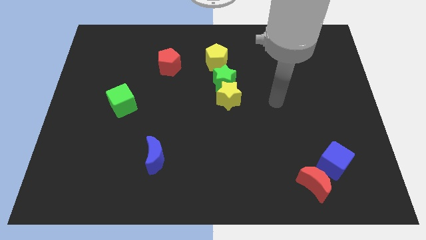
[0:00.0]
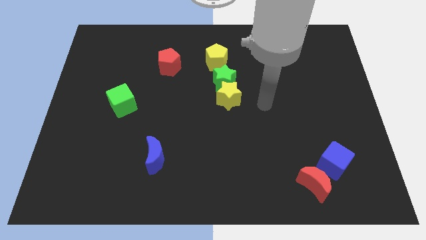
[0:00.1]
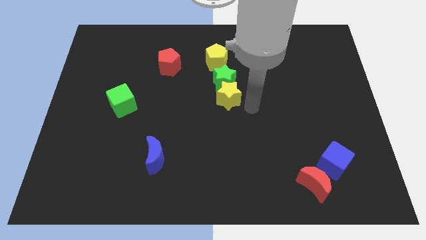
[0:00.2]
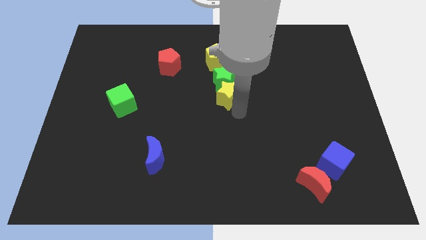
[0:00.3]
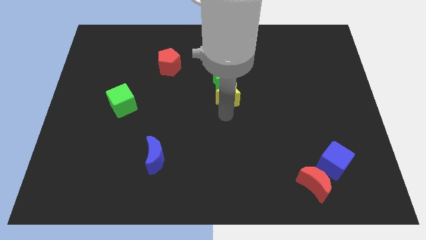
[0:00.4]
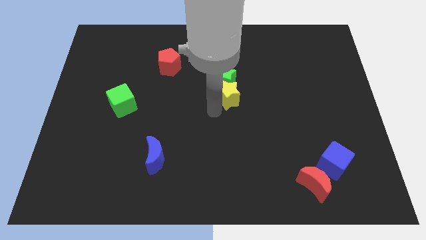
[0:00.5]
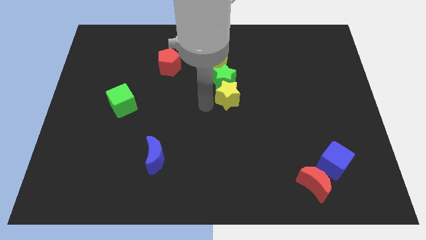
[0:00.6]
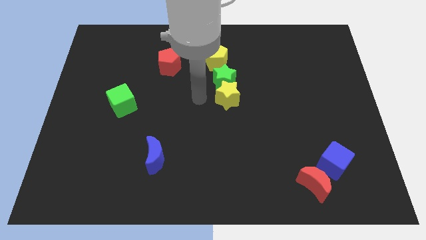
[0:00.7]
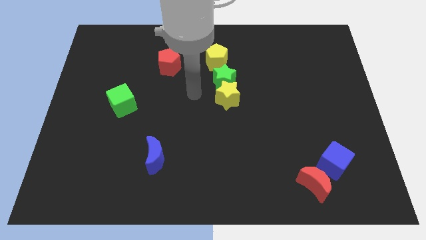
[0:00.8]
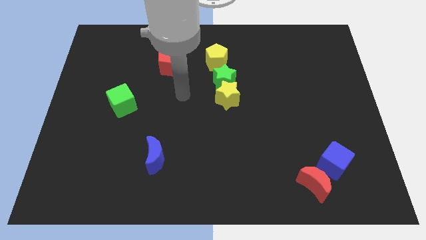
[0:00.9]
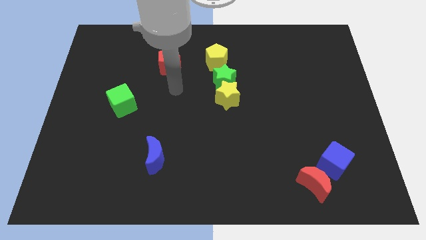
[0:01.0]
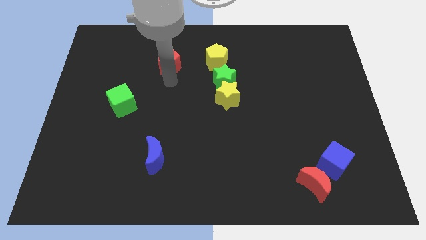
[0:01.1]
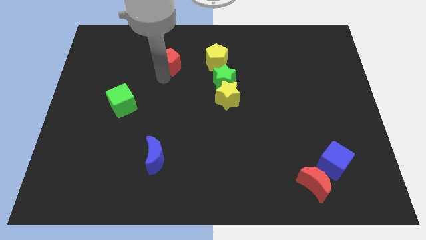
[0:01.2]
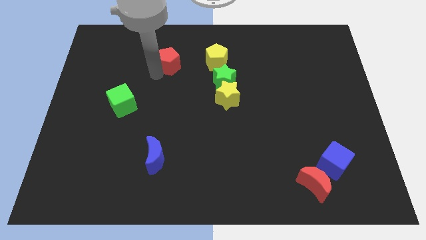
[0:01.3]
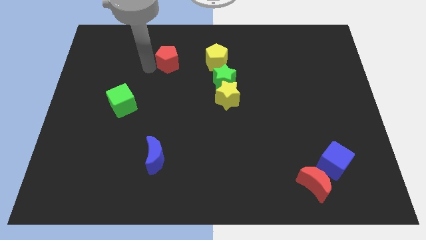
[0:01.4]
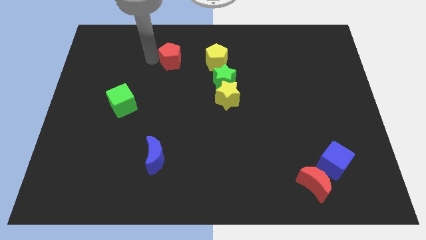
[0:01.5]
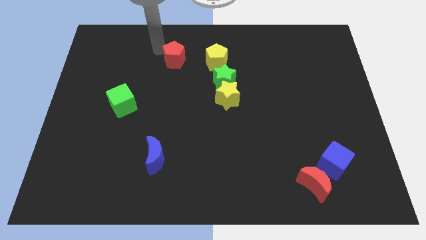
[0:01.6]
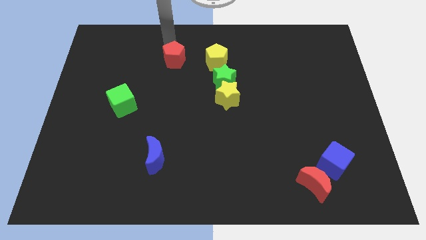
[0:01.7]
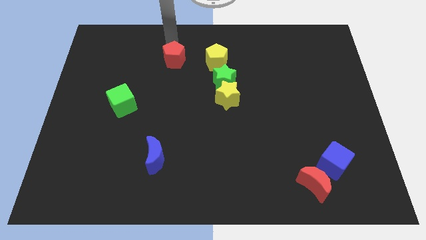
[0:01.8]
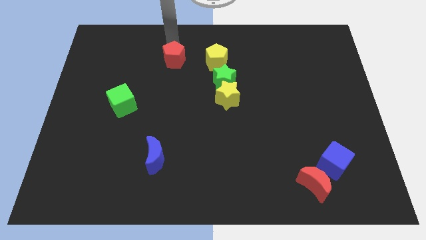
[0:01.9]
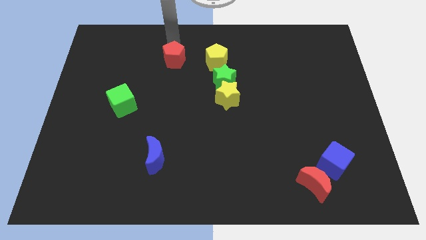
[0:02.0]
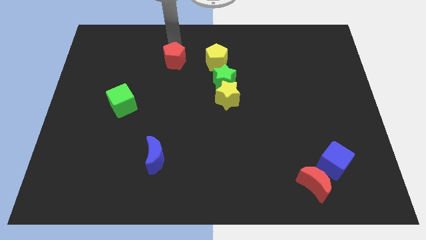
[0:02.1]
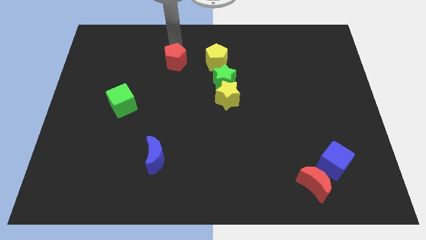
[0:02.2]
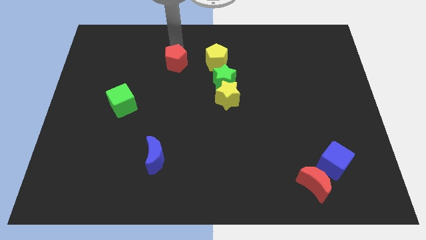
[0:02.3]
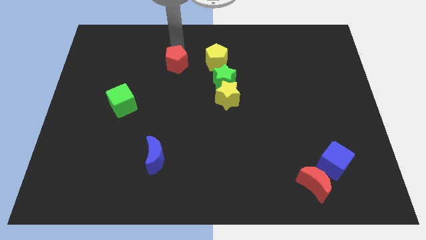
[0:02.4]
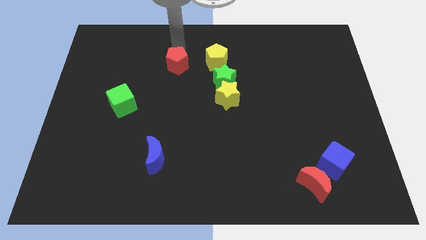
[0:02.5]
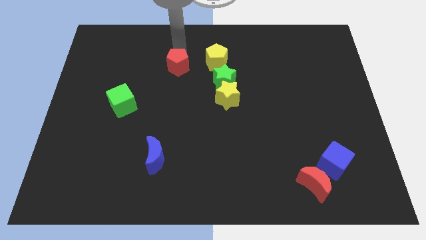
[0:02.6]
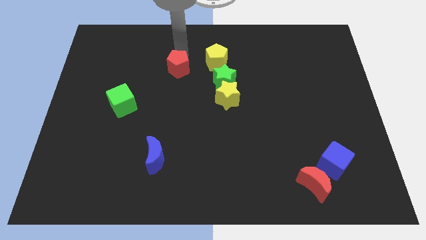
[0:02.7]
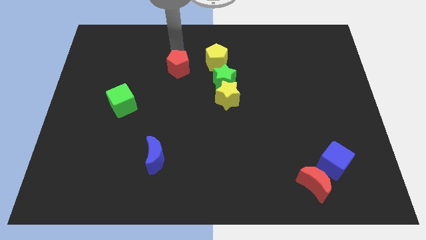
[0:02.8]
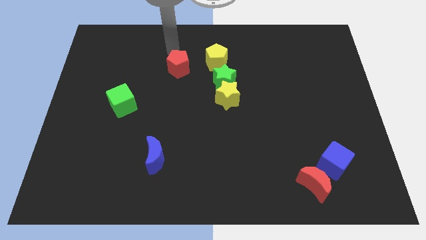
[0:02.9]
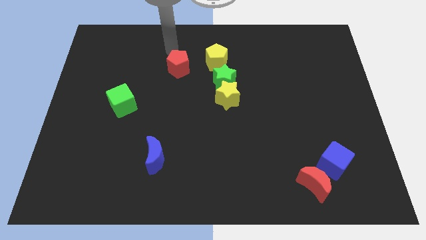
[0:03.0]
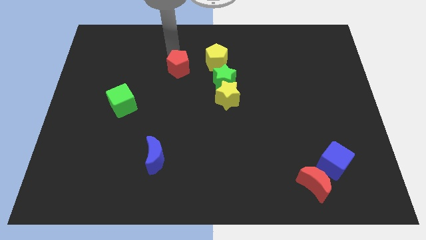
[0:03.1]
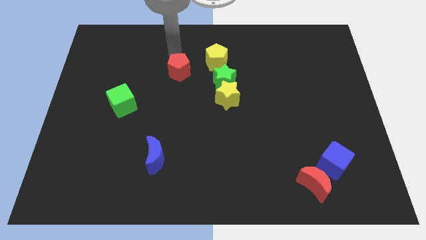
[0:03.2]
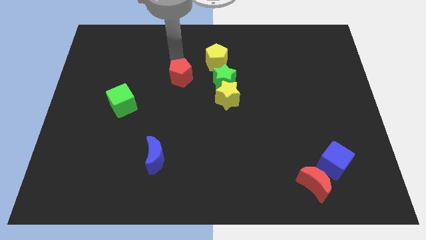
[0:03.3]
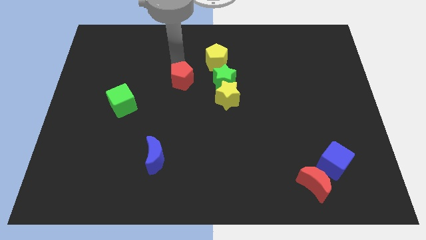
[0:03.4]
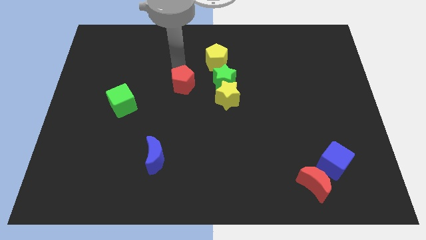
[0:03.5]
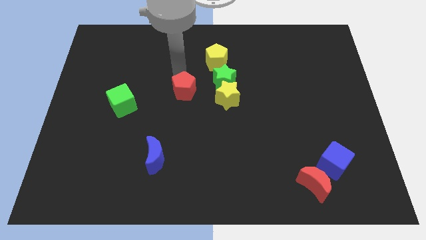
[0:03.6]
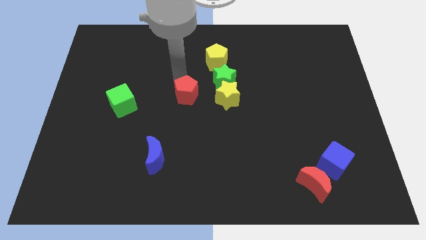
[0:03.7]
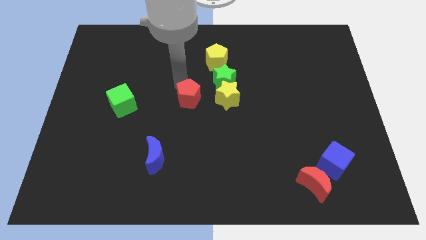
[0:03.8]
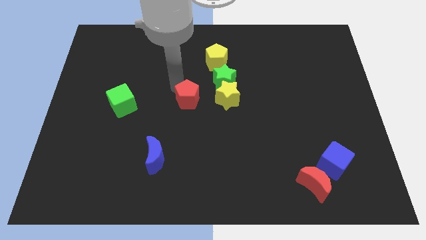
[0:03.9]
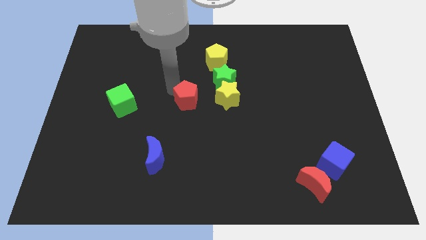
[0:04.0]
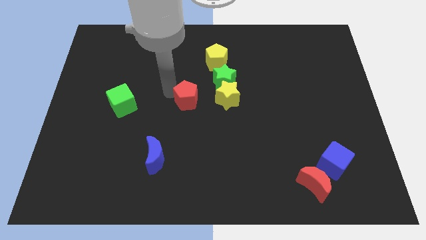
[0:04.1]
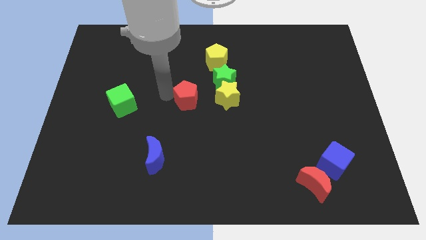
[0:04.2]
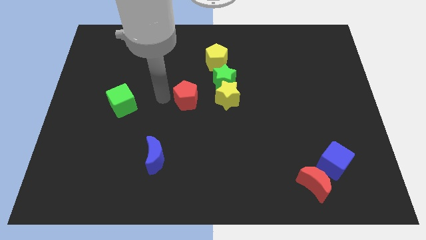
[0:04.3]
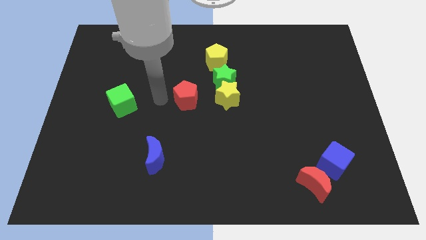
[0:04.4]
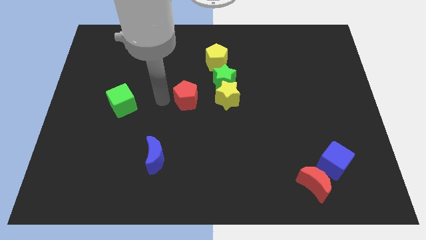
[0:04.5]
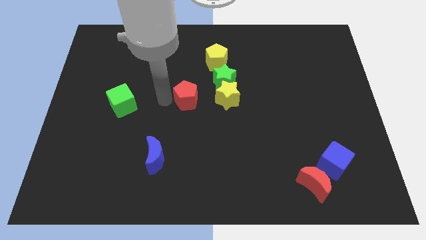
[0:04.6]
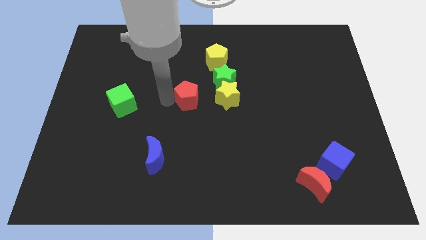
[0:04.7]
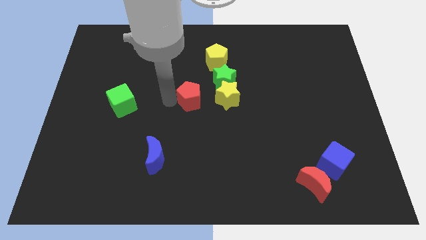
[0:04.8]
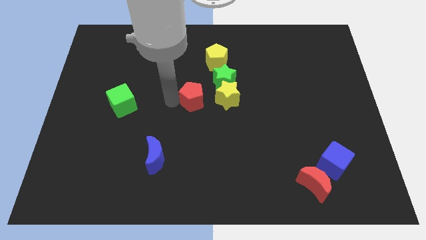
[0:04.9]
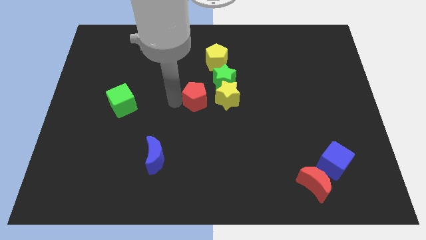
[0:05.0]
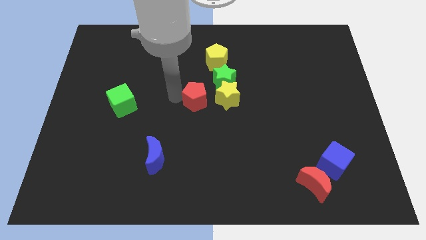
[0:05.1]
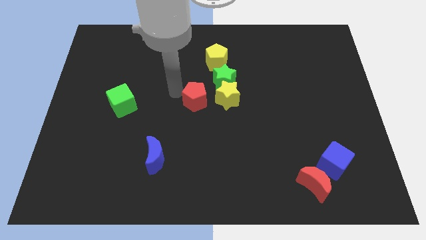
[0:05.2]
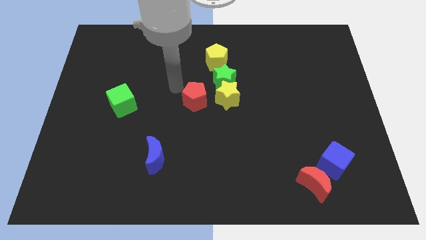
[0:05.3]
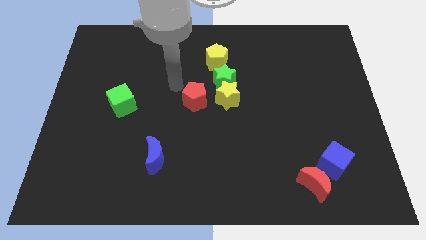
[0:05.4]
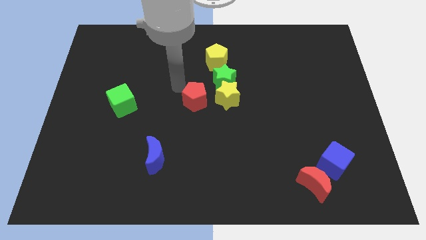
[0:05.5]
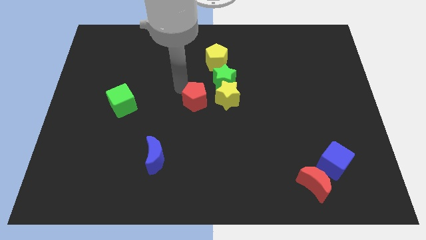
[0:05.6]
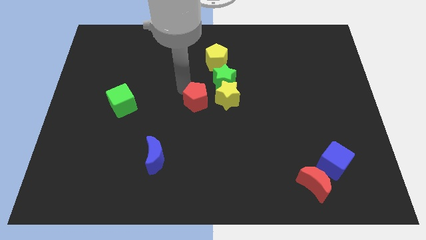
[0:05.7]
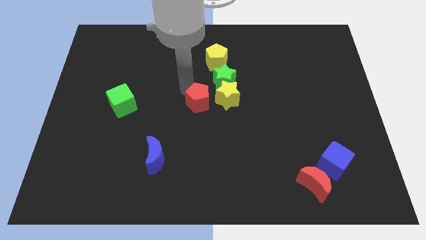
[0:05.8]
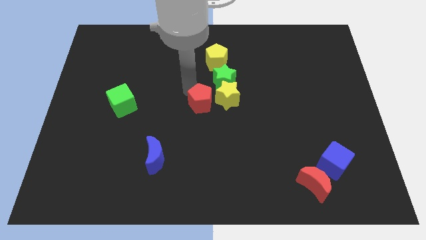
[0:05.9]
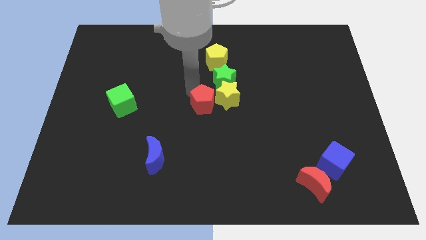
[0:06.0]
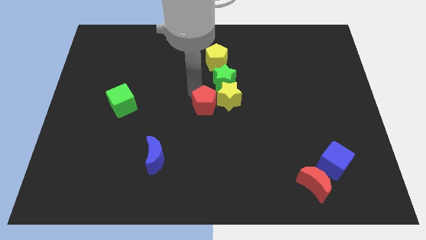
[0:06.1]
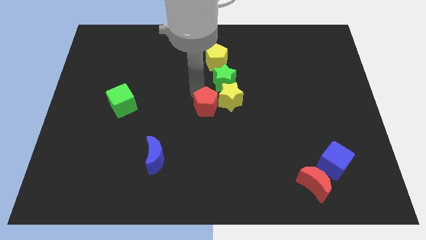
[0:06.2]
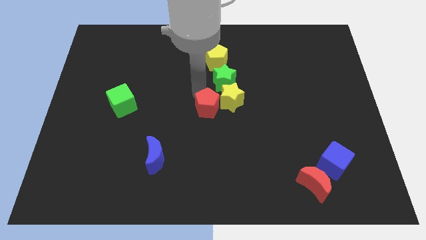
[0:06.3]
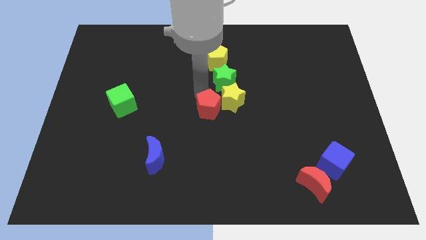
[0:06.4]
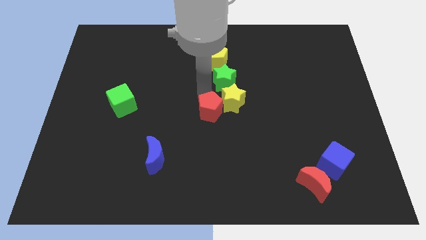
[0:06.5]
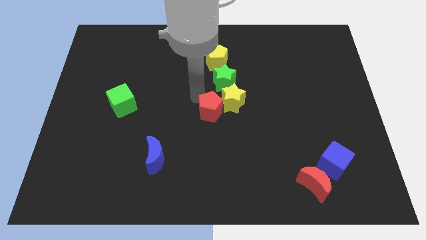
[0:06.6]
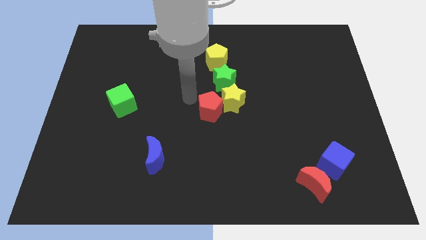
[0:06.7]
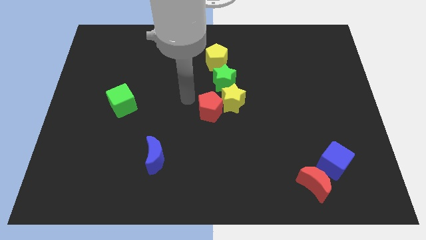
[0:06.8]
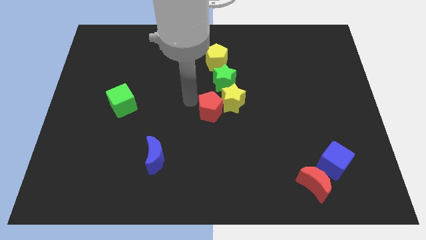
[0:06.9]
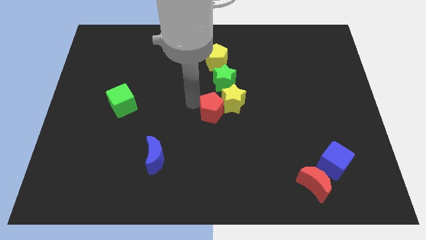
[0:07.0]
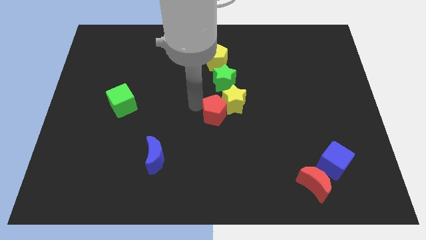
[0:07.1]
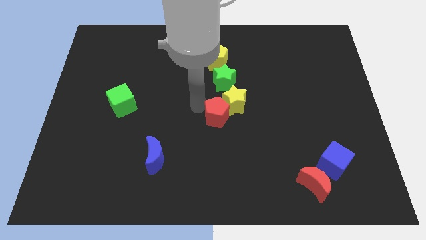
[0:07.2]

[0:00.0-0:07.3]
push the red pentagon diagonally downwards and to the right

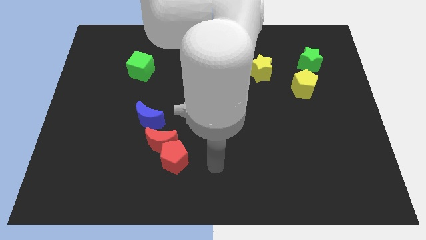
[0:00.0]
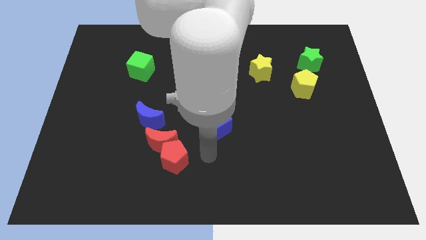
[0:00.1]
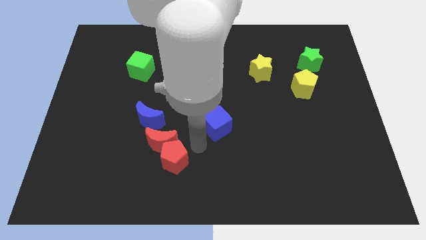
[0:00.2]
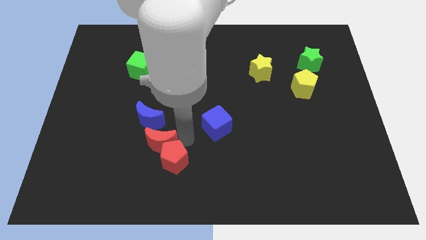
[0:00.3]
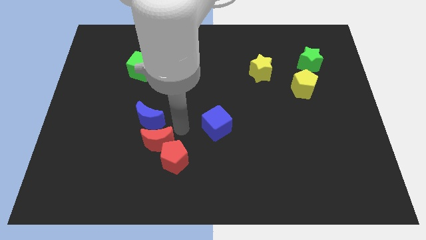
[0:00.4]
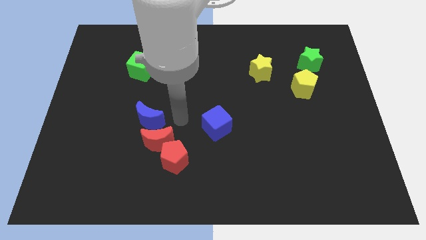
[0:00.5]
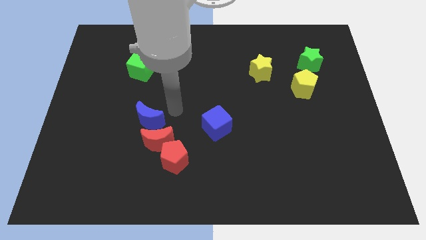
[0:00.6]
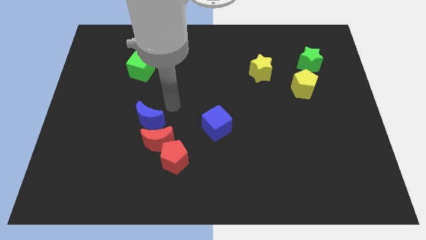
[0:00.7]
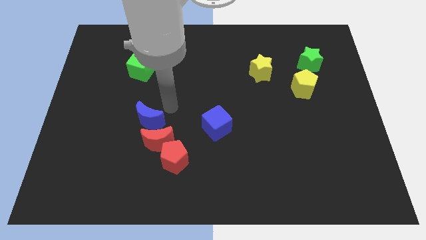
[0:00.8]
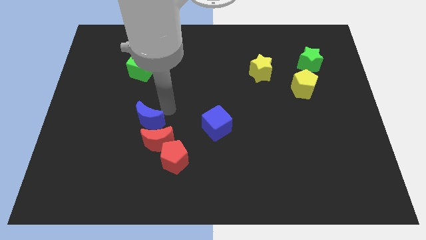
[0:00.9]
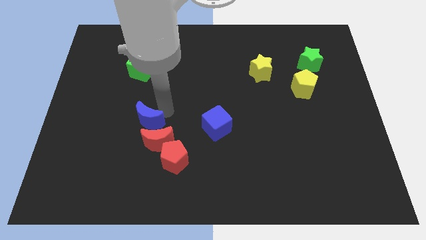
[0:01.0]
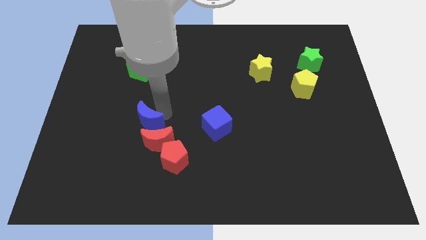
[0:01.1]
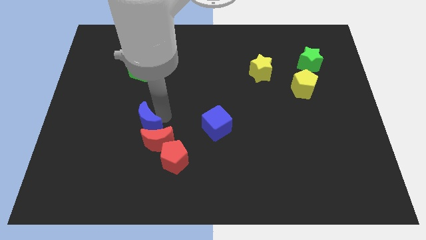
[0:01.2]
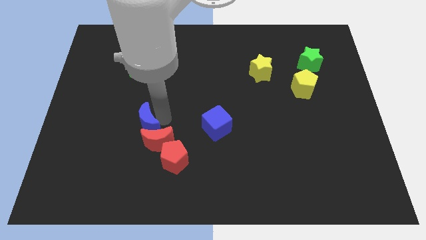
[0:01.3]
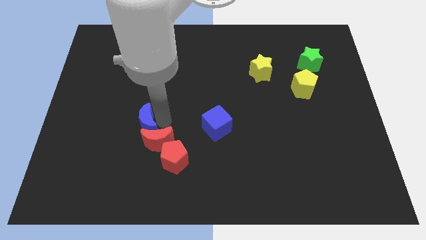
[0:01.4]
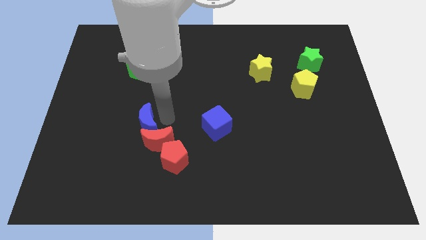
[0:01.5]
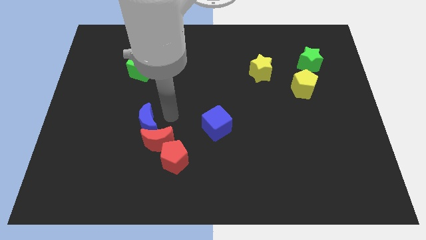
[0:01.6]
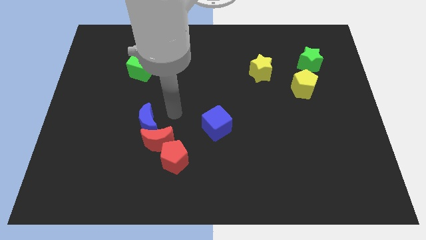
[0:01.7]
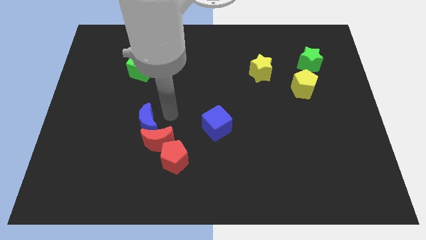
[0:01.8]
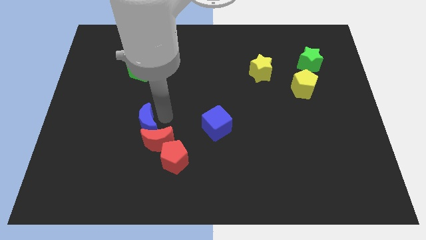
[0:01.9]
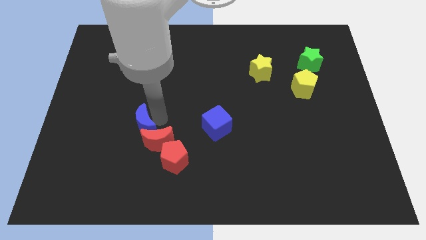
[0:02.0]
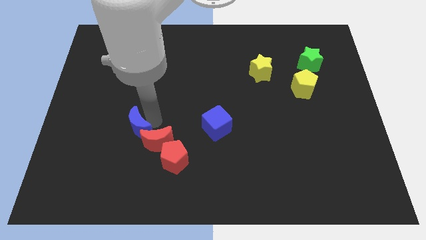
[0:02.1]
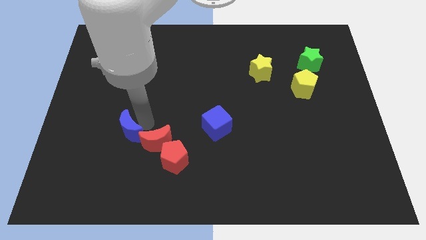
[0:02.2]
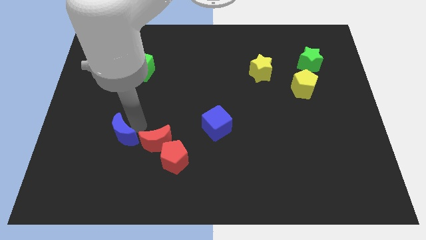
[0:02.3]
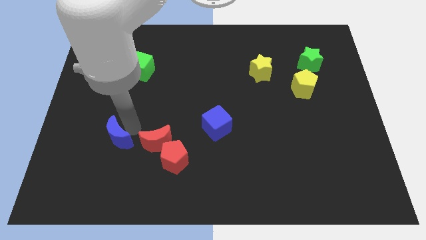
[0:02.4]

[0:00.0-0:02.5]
push the blue moon slightly down and then left
